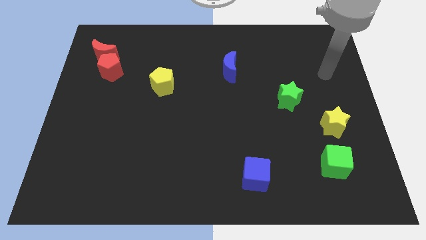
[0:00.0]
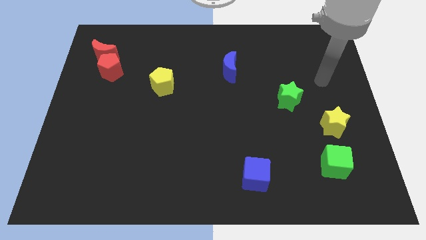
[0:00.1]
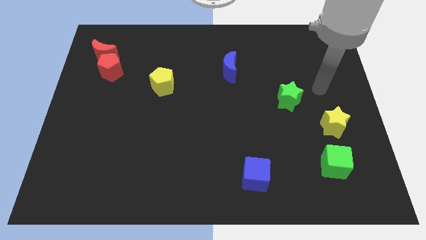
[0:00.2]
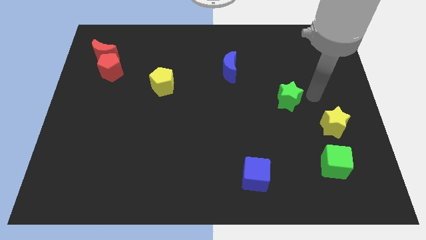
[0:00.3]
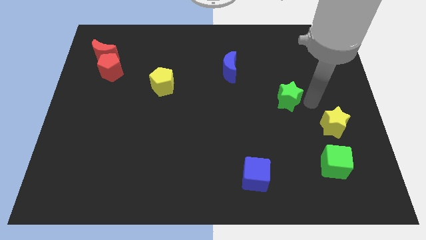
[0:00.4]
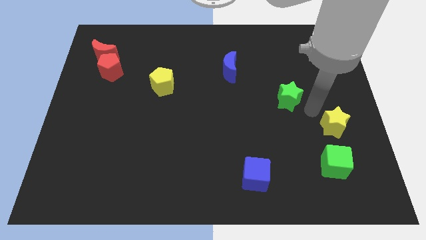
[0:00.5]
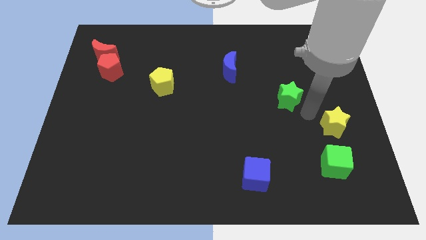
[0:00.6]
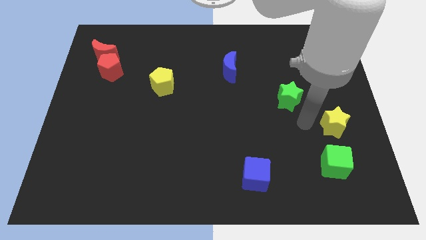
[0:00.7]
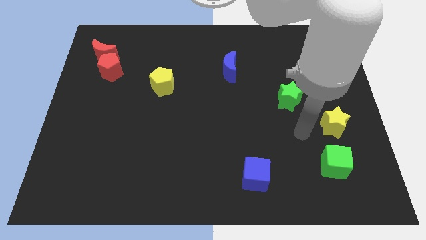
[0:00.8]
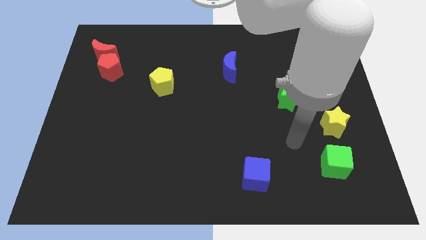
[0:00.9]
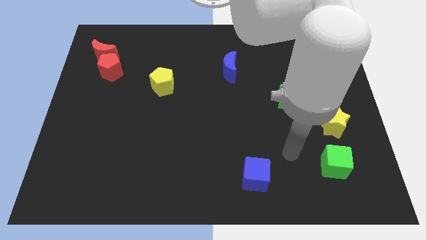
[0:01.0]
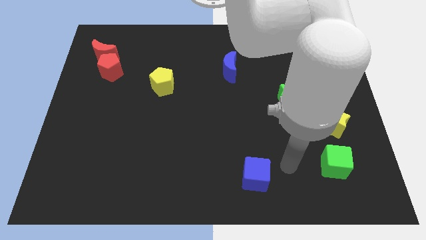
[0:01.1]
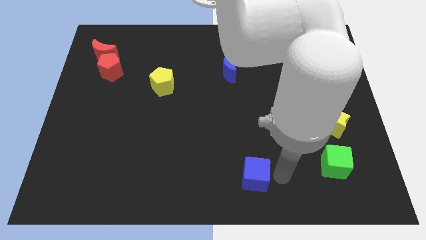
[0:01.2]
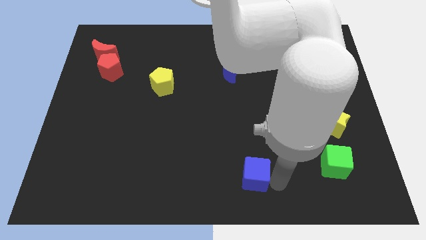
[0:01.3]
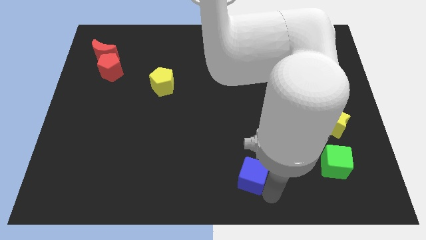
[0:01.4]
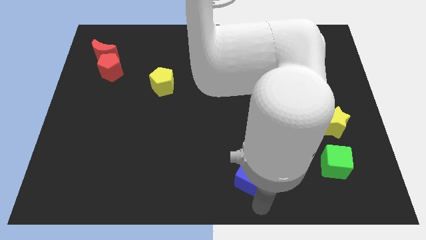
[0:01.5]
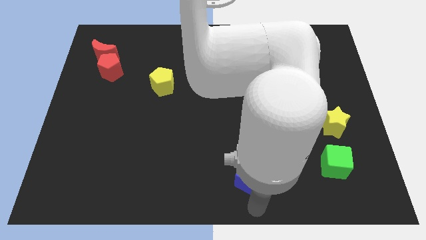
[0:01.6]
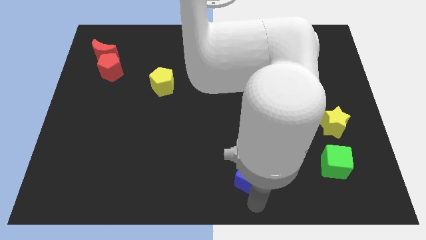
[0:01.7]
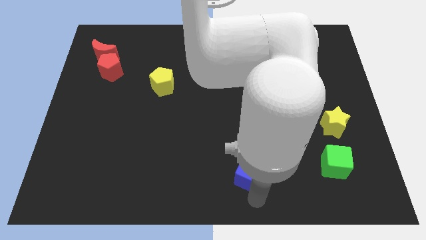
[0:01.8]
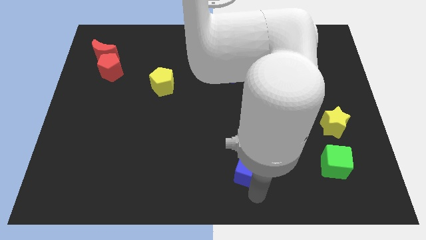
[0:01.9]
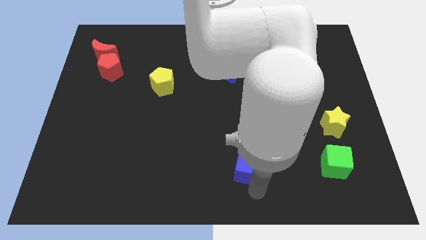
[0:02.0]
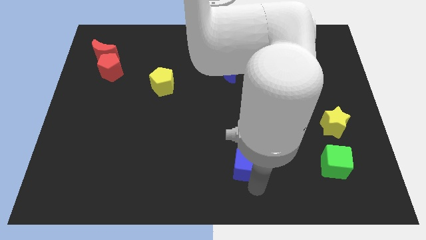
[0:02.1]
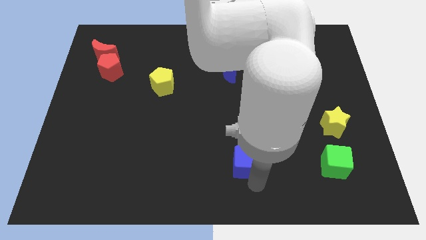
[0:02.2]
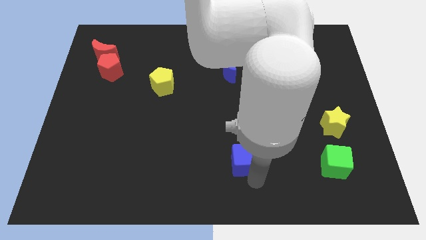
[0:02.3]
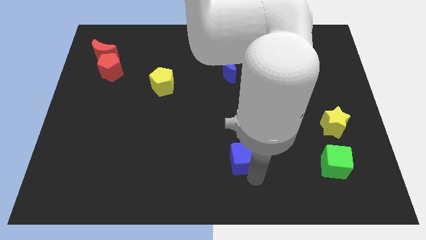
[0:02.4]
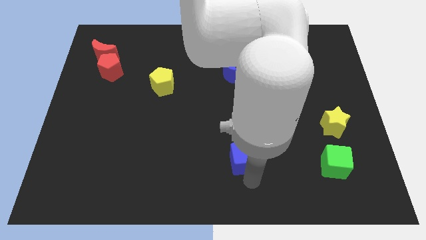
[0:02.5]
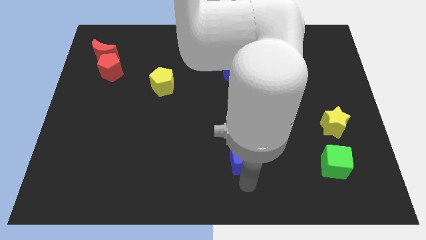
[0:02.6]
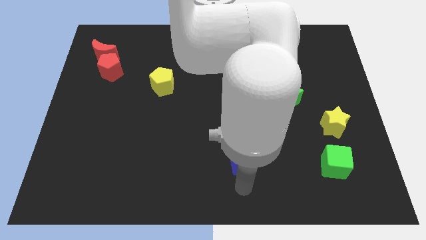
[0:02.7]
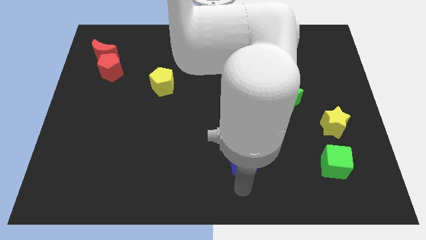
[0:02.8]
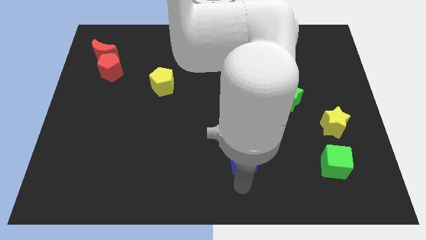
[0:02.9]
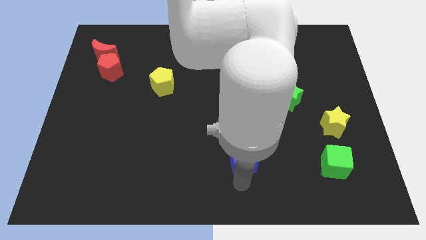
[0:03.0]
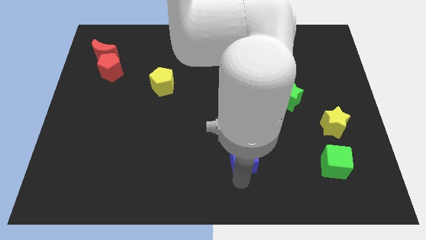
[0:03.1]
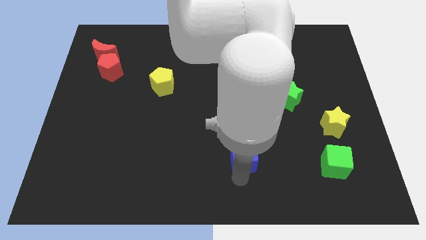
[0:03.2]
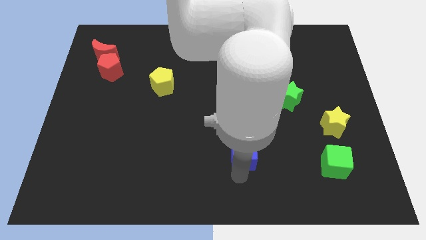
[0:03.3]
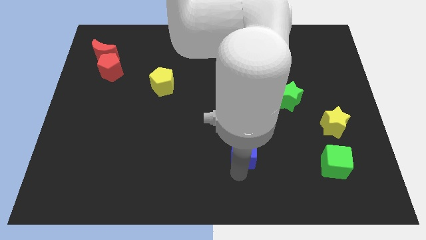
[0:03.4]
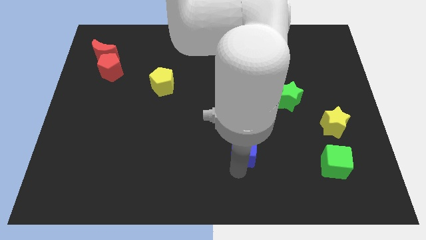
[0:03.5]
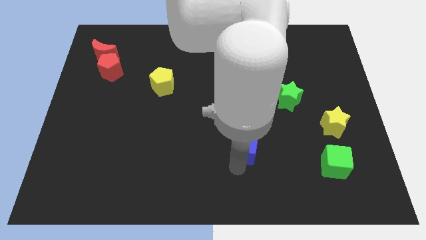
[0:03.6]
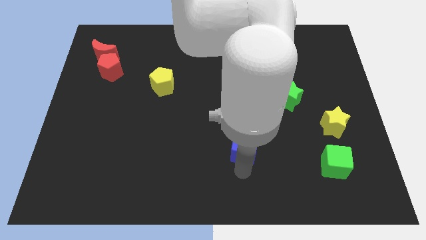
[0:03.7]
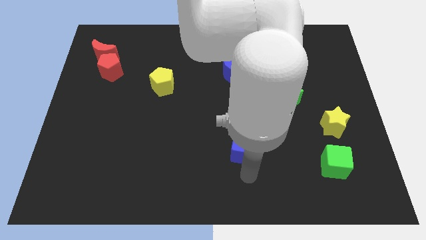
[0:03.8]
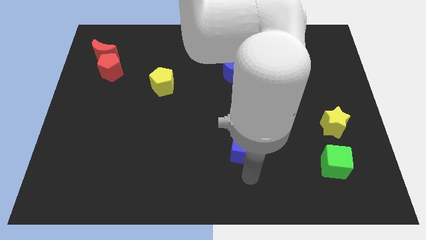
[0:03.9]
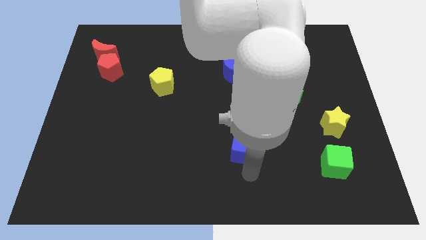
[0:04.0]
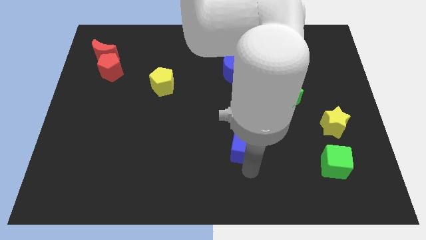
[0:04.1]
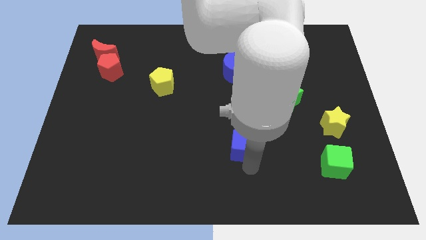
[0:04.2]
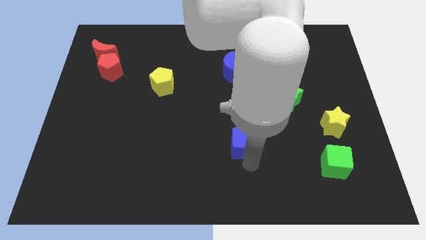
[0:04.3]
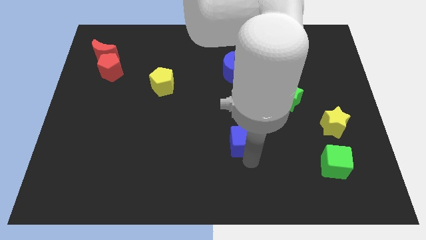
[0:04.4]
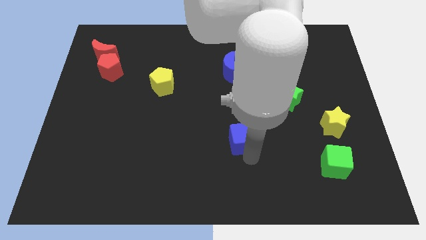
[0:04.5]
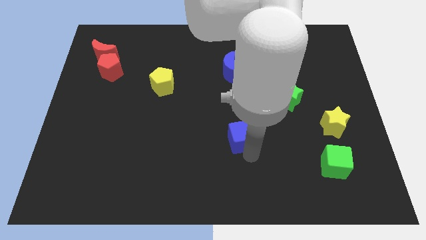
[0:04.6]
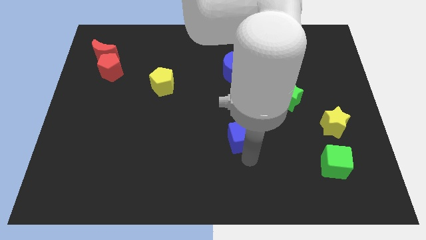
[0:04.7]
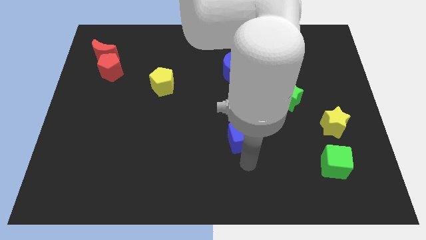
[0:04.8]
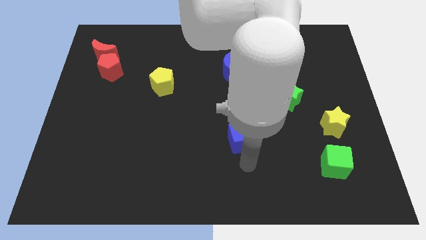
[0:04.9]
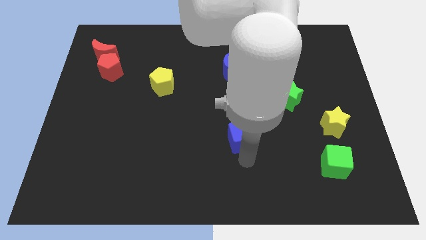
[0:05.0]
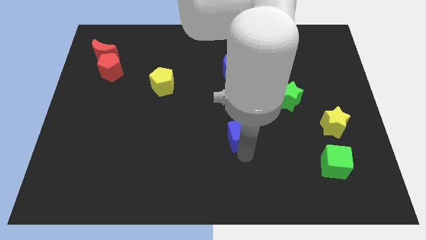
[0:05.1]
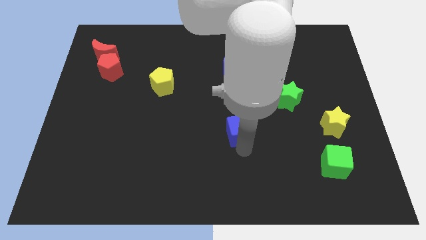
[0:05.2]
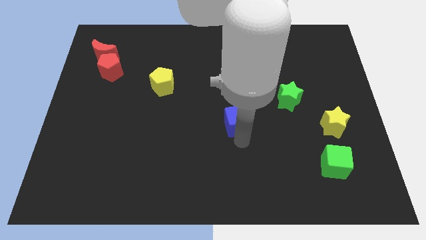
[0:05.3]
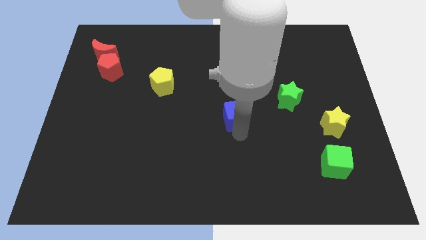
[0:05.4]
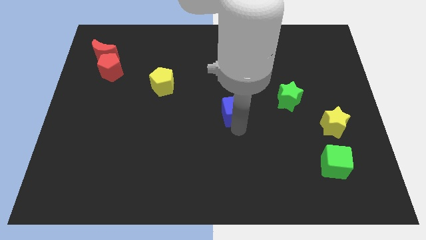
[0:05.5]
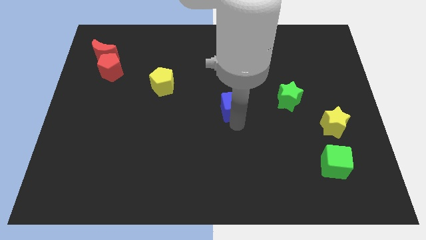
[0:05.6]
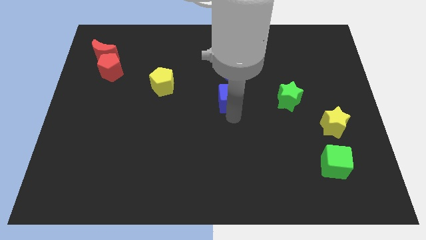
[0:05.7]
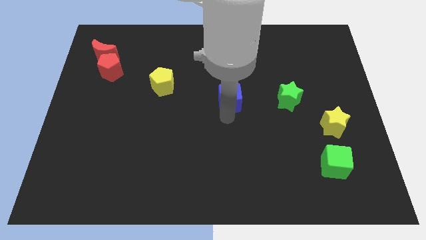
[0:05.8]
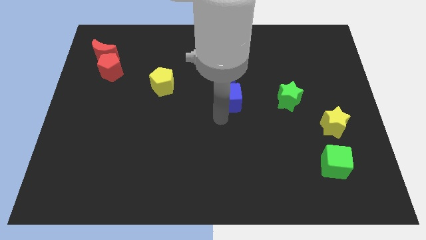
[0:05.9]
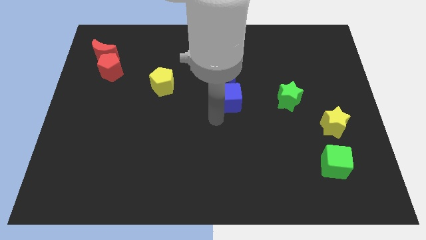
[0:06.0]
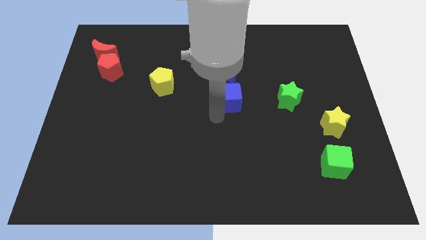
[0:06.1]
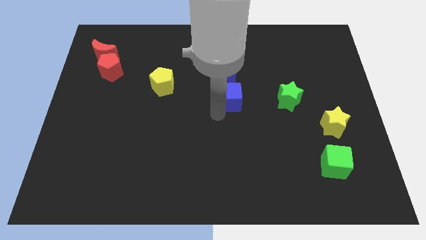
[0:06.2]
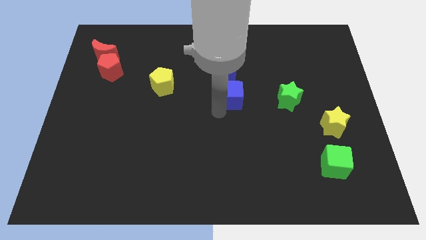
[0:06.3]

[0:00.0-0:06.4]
move the blue cube up

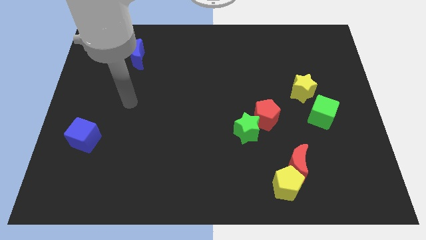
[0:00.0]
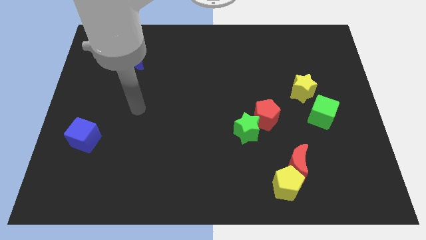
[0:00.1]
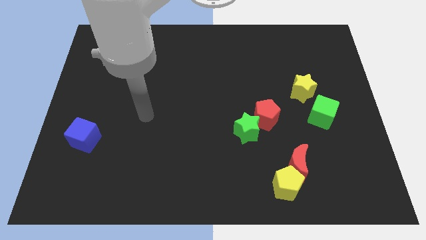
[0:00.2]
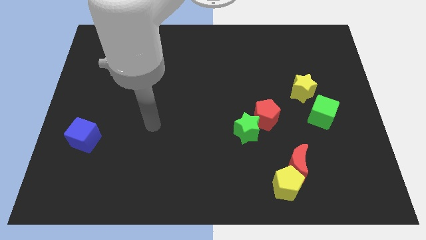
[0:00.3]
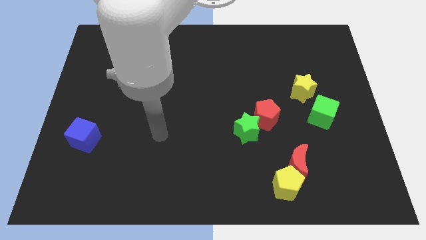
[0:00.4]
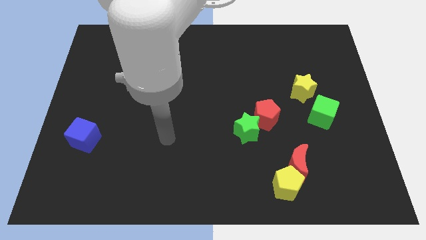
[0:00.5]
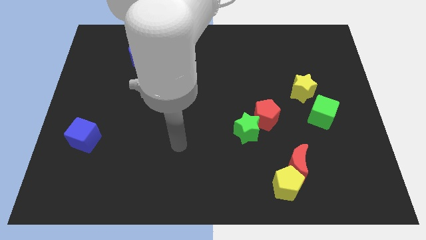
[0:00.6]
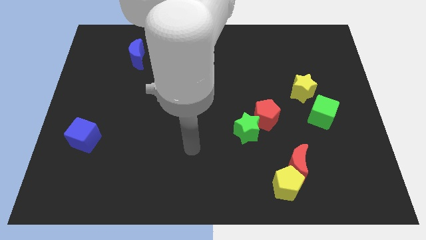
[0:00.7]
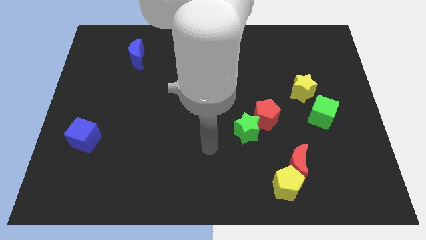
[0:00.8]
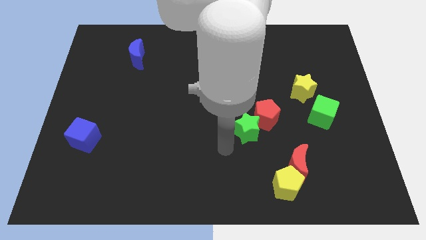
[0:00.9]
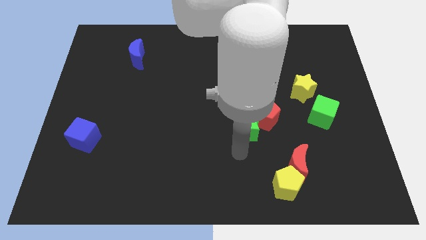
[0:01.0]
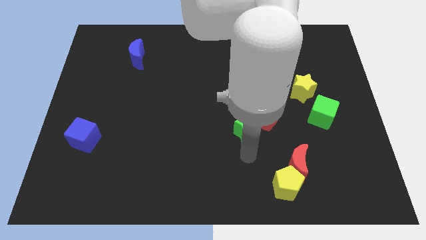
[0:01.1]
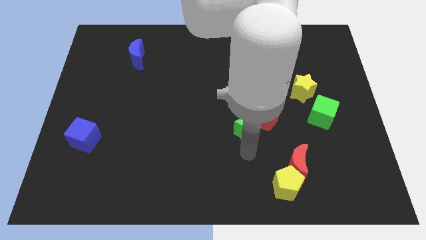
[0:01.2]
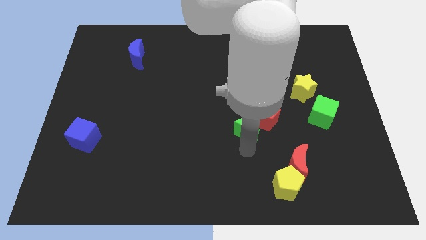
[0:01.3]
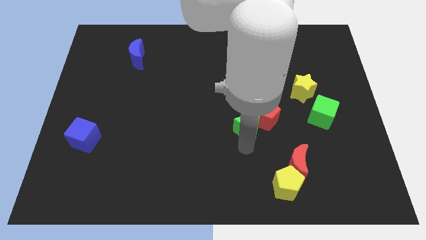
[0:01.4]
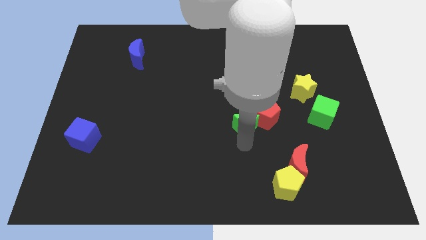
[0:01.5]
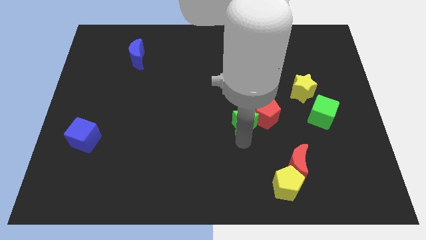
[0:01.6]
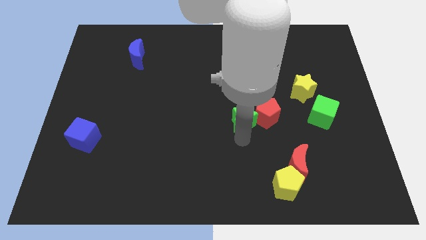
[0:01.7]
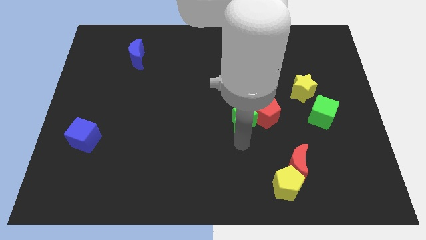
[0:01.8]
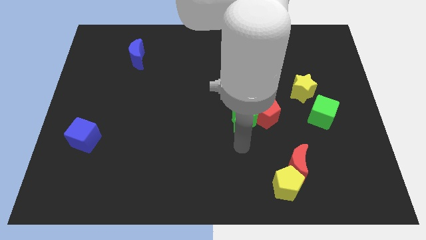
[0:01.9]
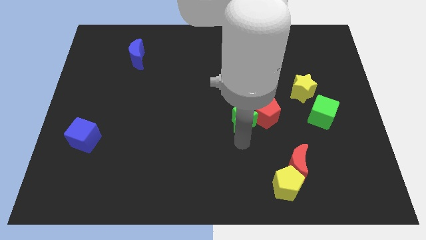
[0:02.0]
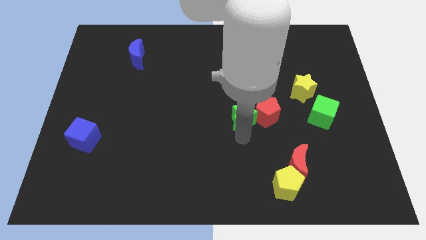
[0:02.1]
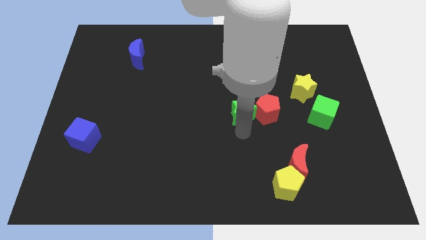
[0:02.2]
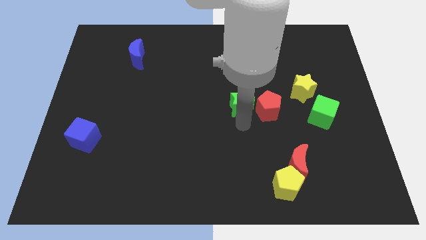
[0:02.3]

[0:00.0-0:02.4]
push the green star upwards a little
